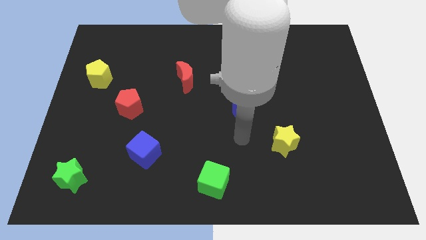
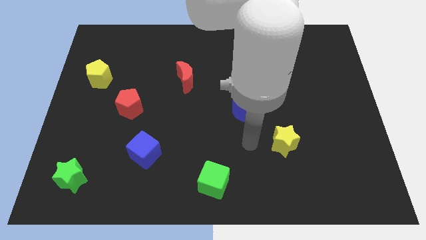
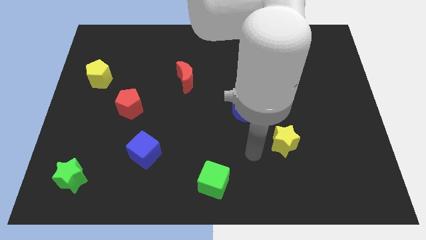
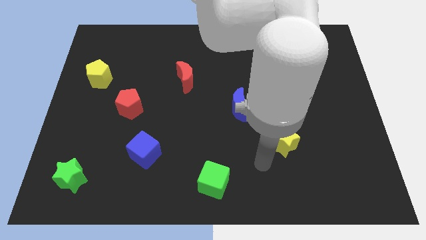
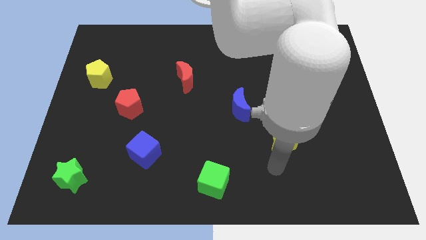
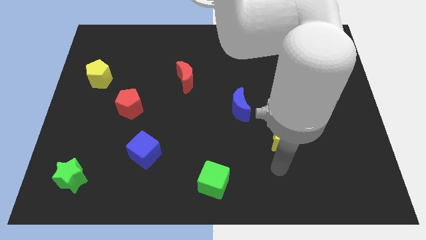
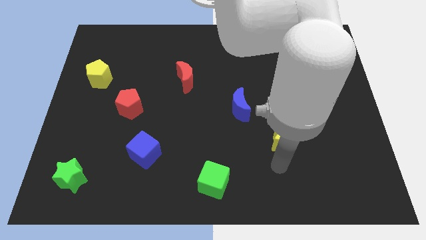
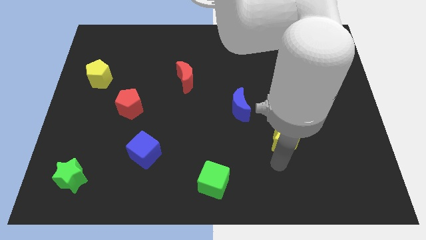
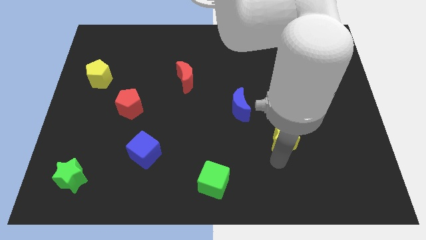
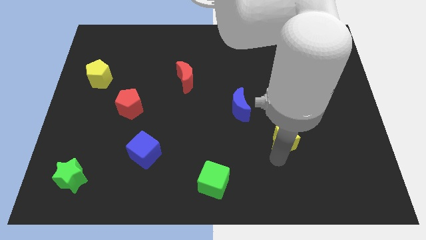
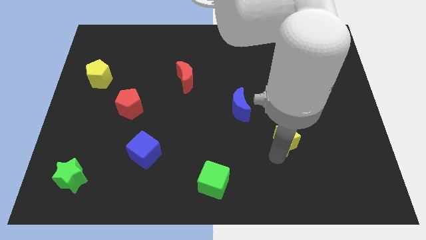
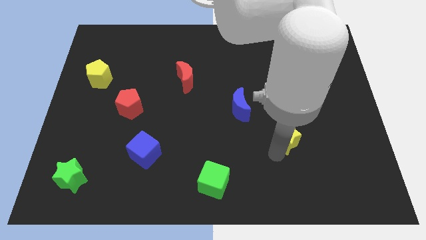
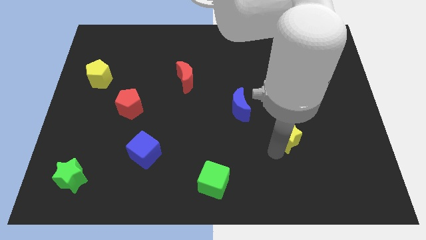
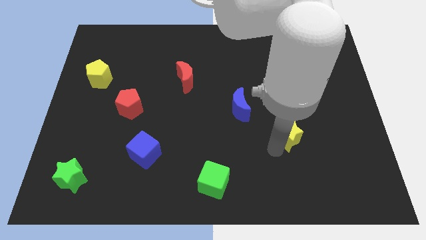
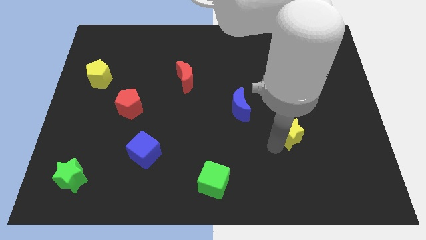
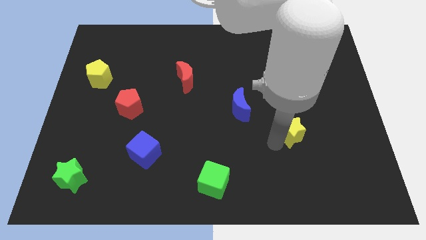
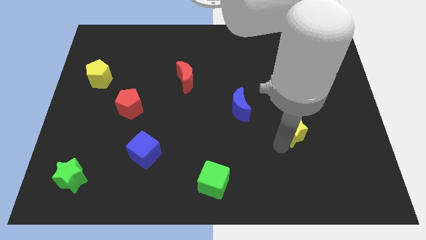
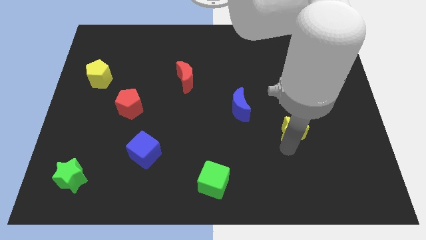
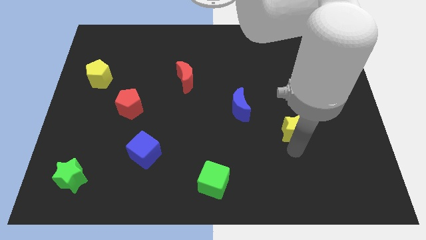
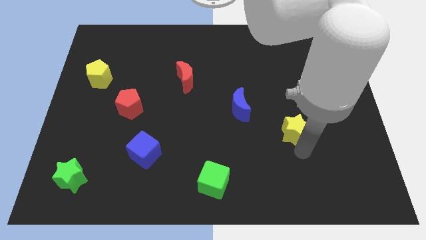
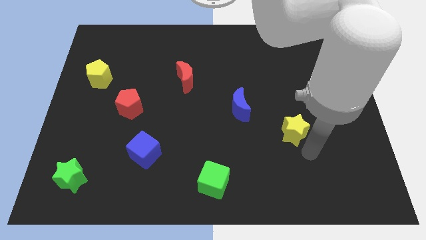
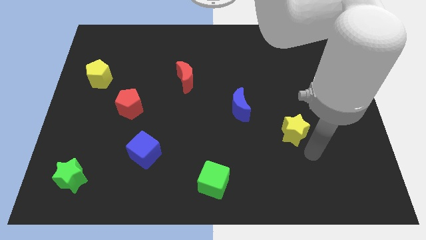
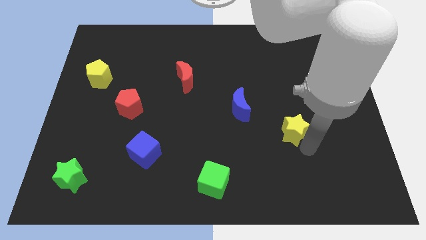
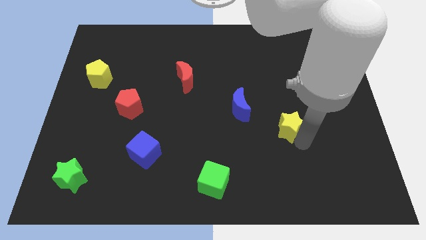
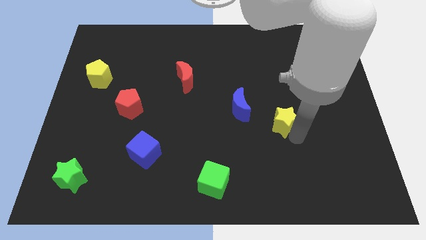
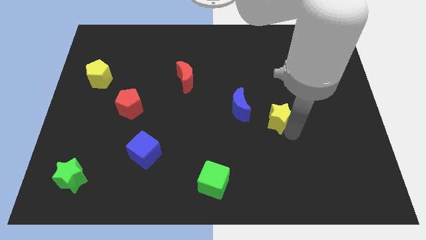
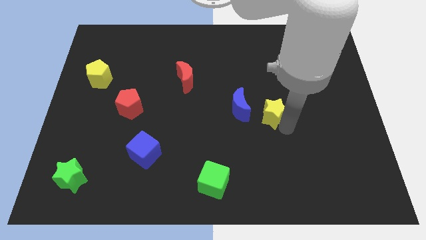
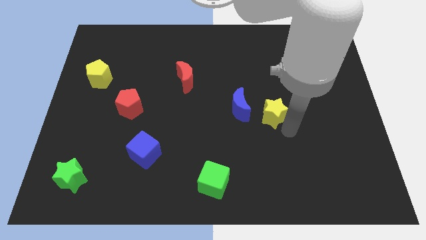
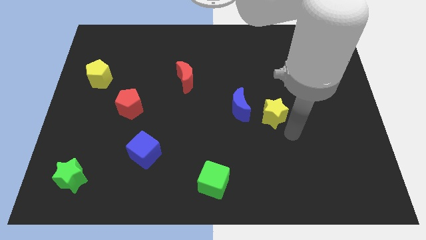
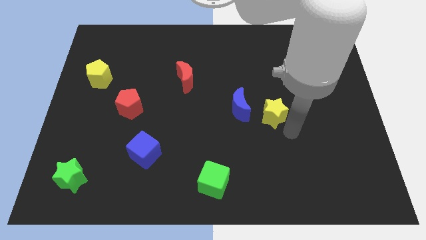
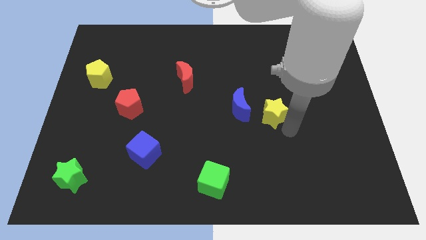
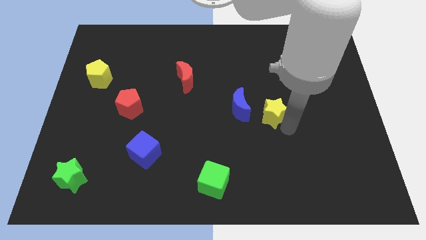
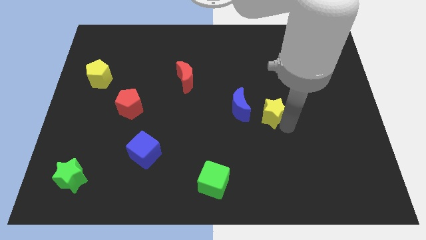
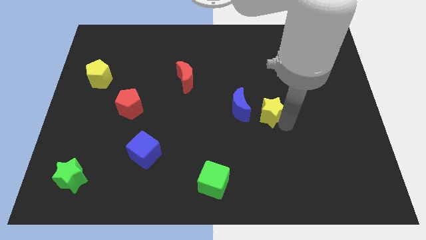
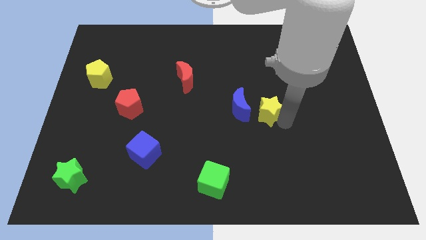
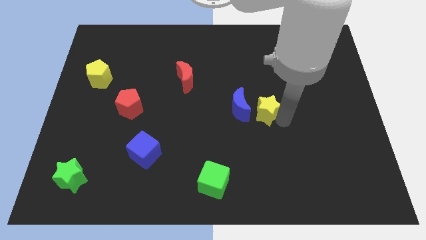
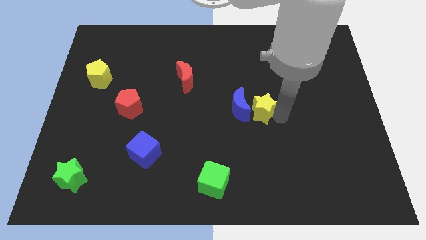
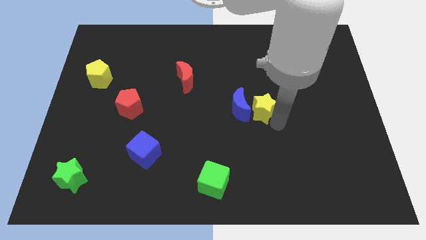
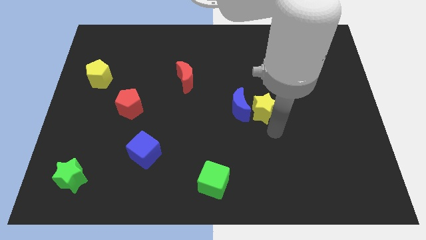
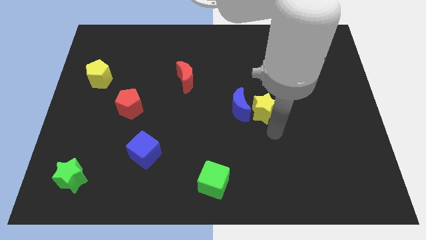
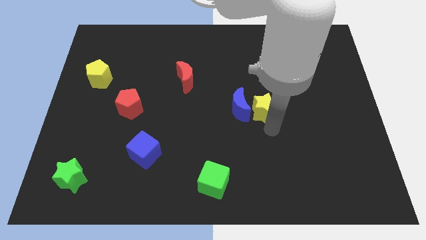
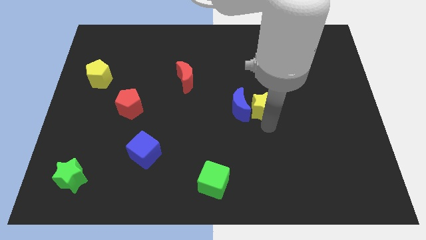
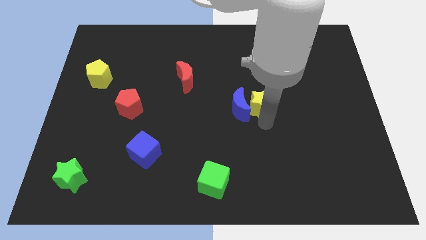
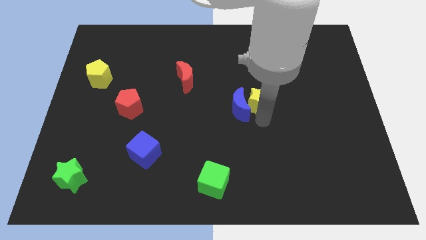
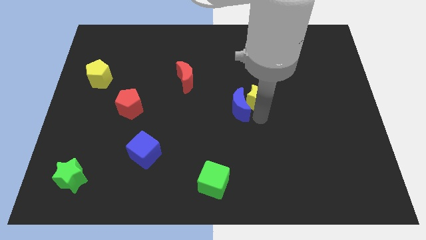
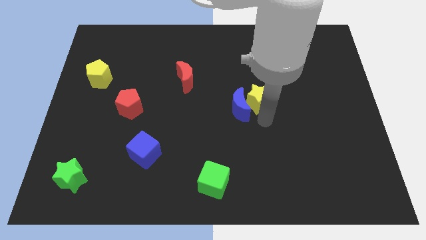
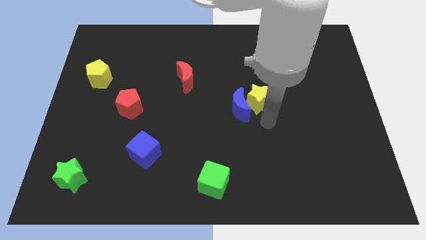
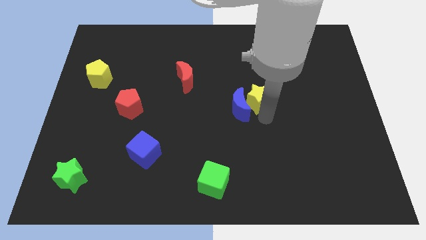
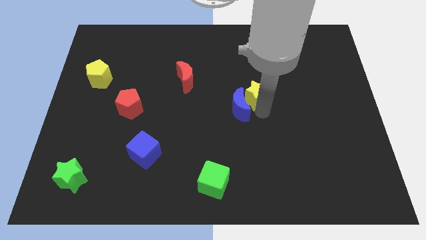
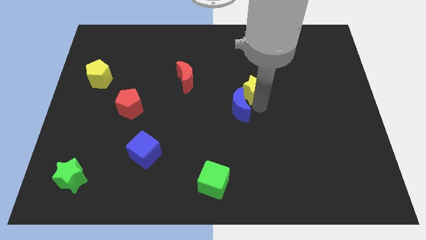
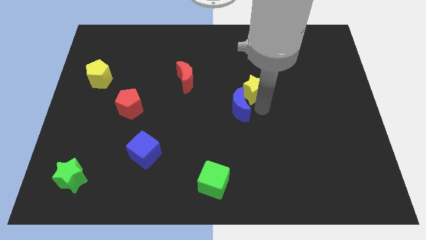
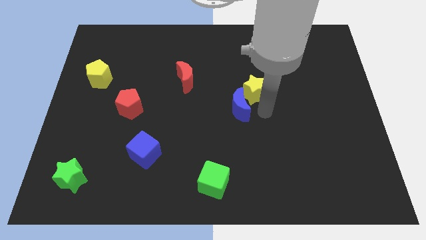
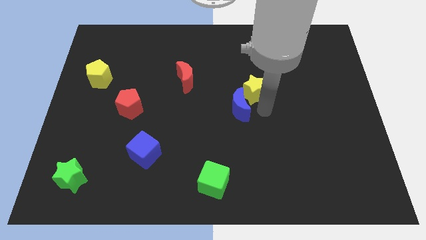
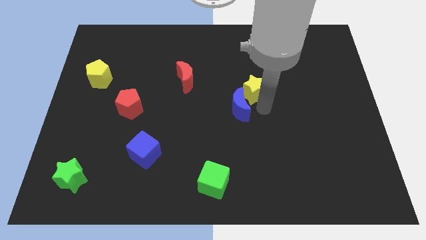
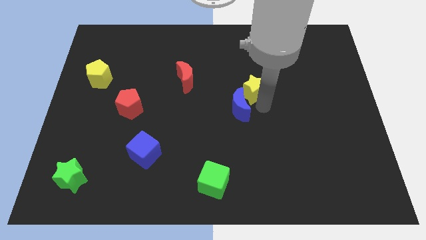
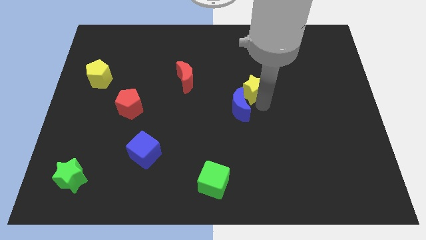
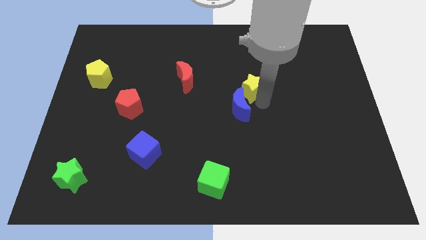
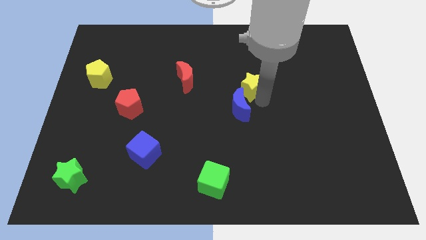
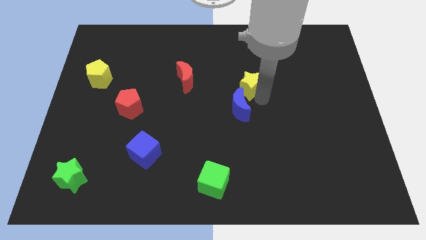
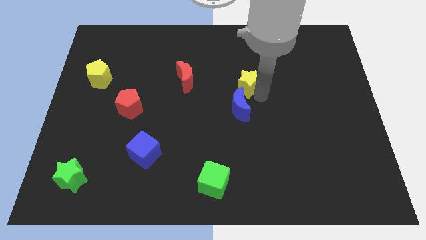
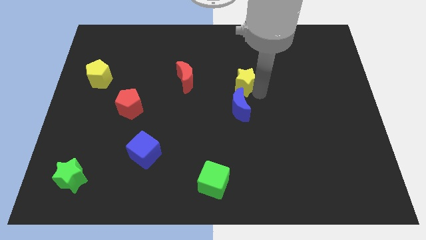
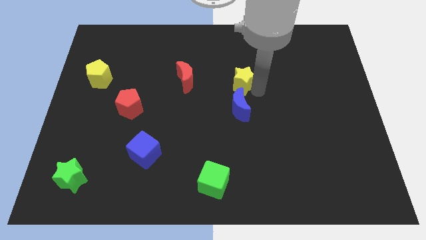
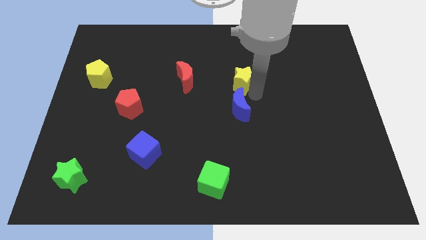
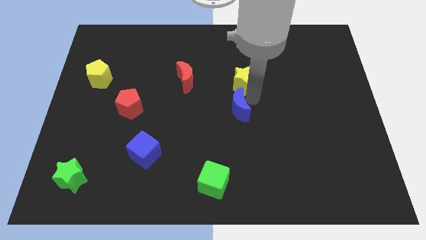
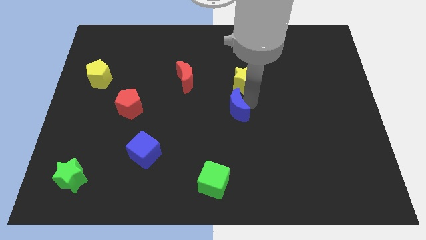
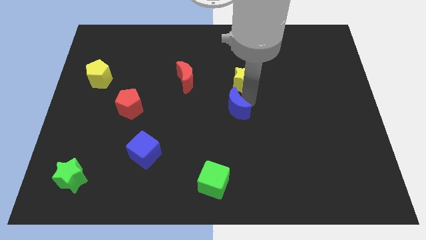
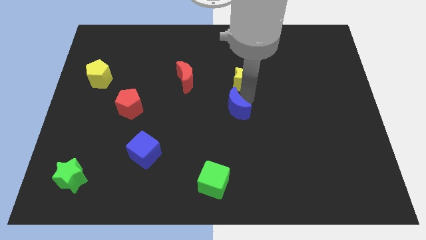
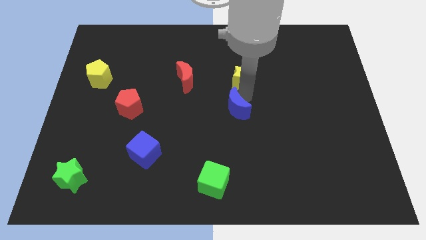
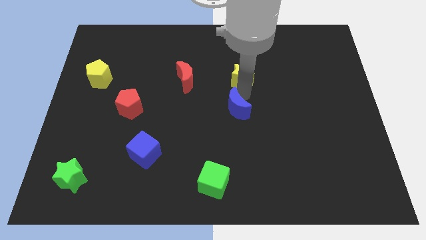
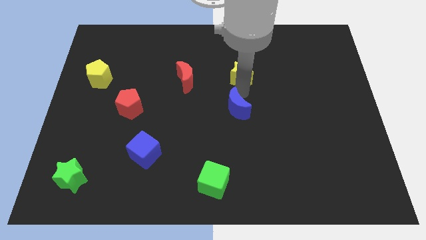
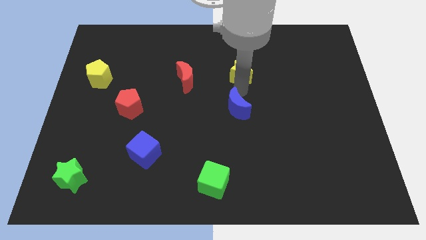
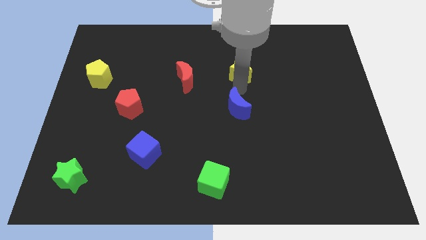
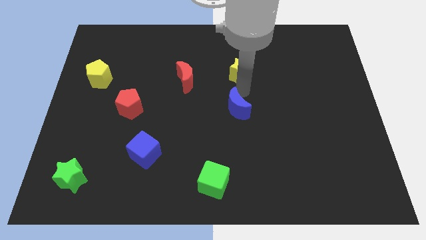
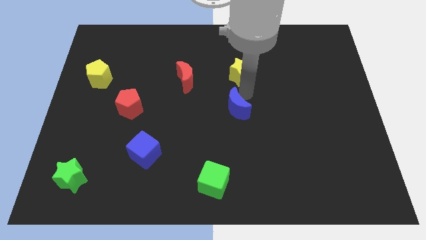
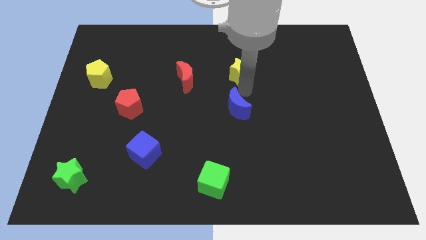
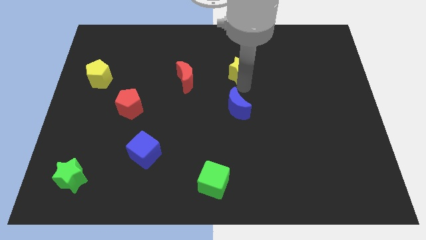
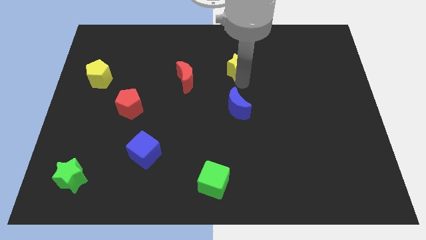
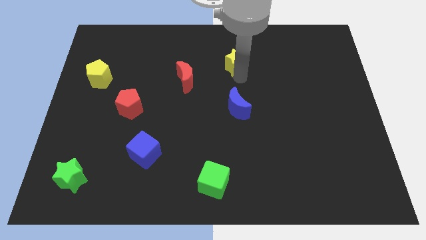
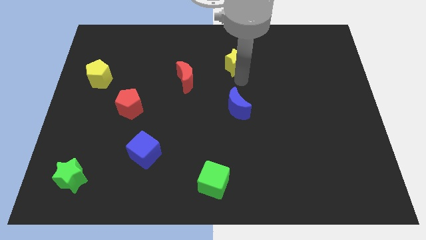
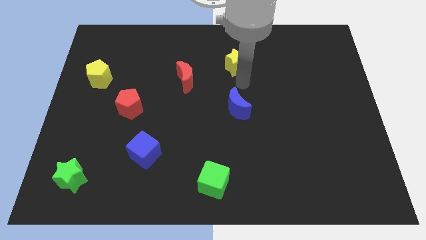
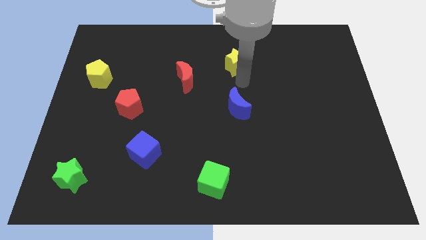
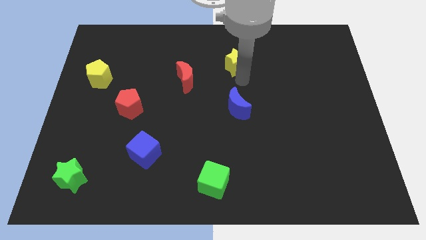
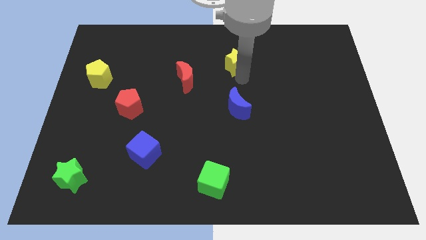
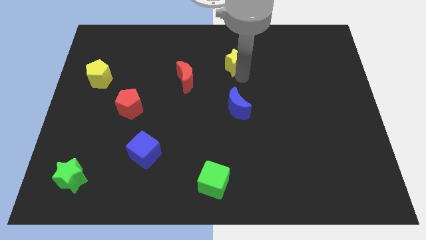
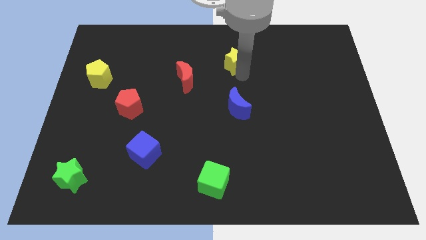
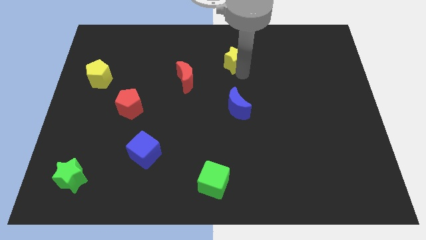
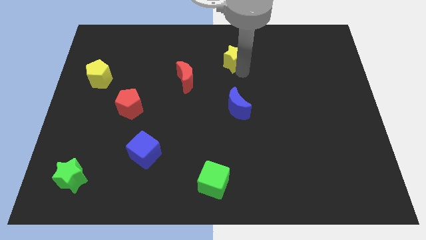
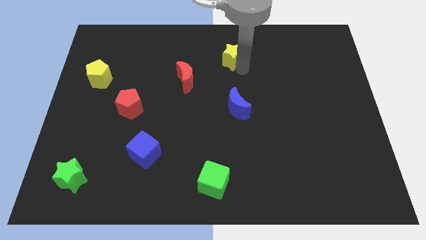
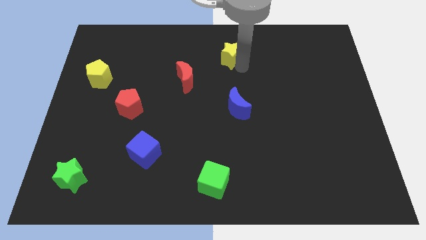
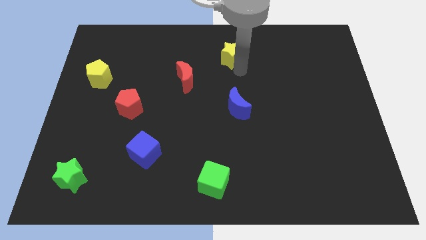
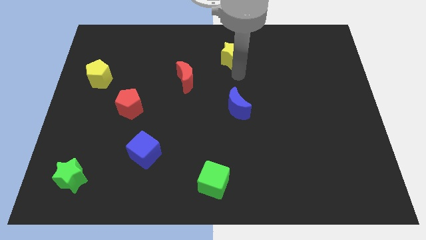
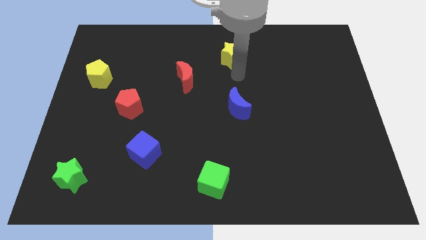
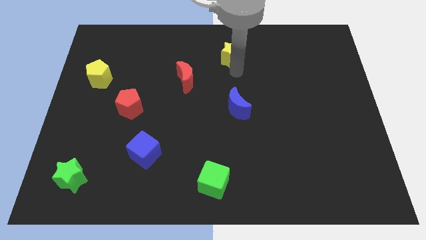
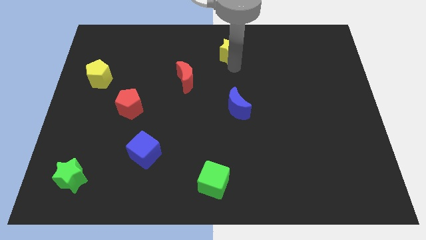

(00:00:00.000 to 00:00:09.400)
slide the yellow star to the top
